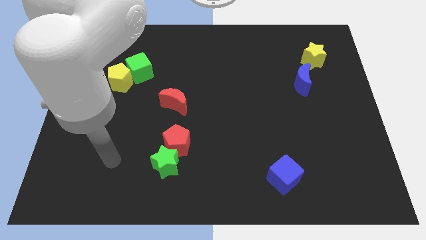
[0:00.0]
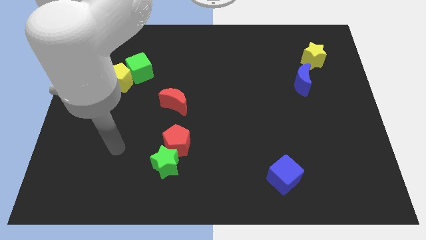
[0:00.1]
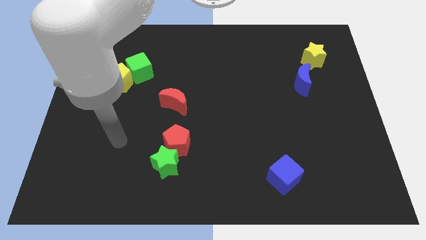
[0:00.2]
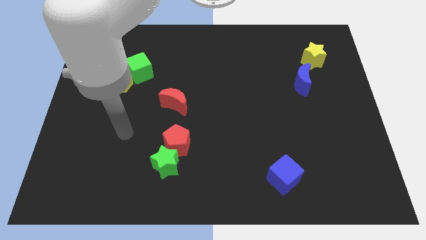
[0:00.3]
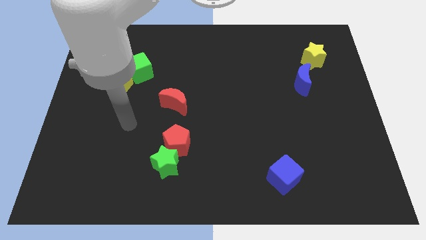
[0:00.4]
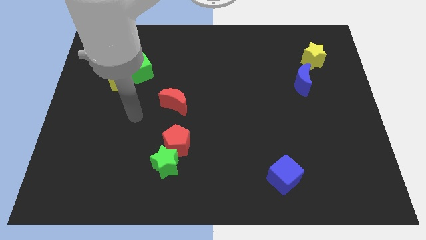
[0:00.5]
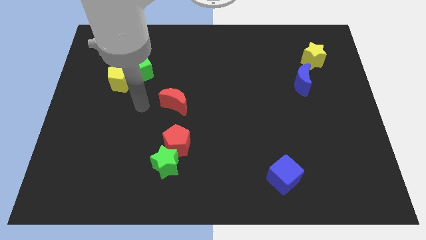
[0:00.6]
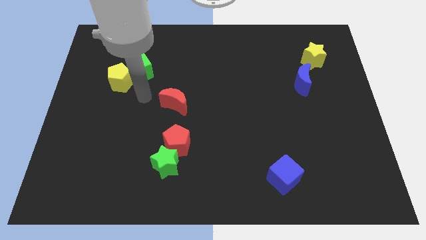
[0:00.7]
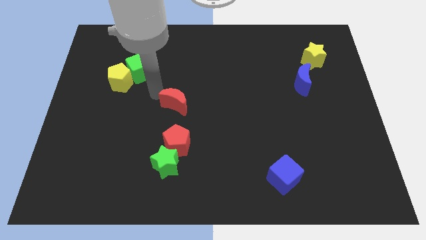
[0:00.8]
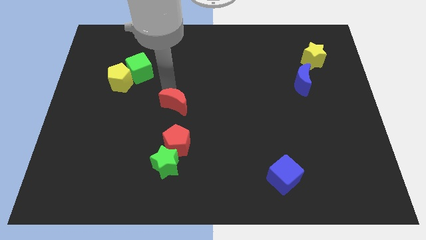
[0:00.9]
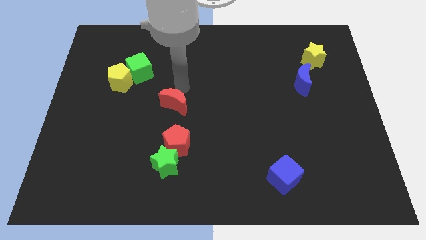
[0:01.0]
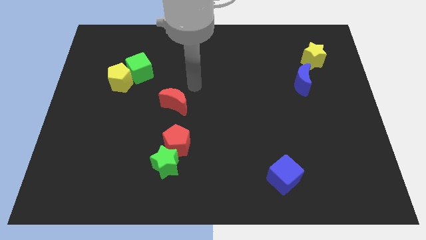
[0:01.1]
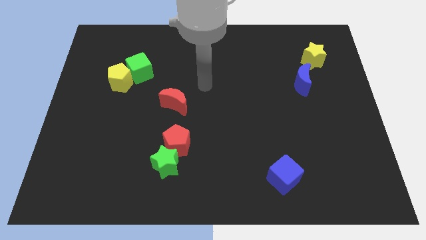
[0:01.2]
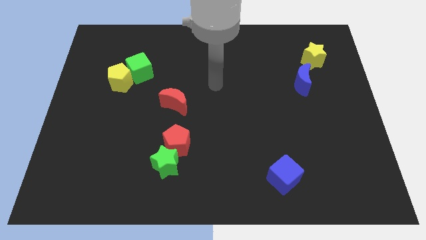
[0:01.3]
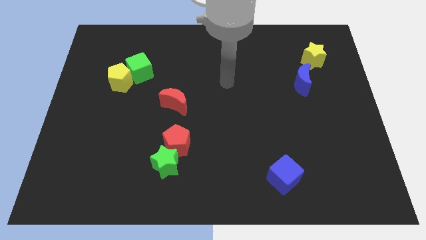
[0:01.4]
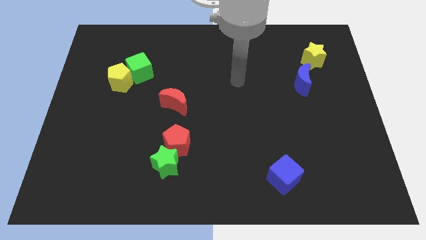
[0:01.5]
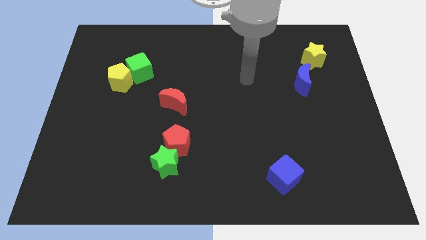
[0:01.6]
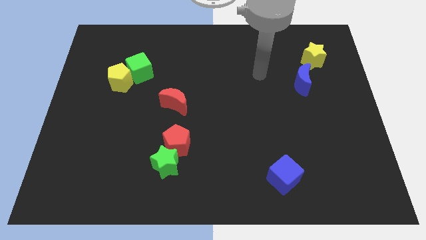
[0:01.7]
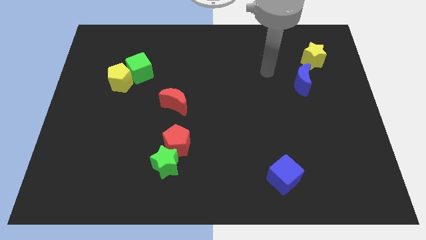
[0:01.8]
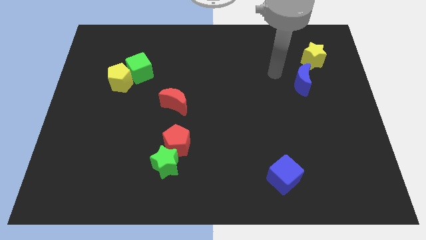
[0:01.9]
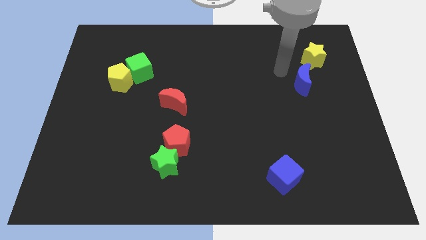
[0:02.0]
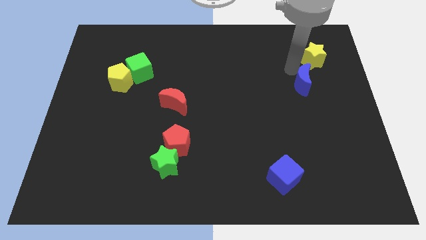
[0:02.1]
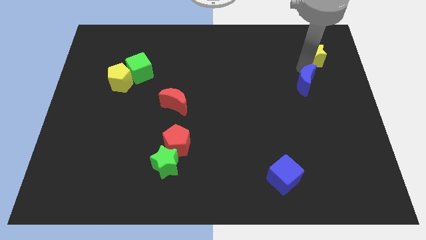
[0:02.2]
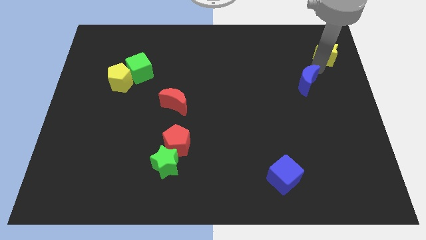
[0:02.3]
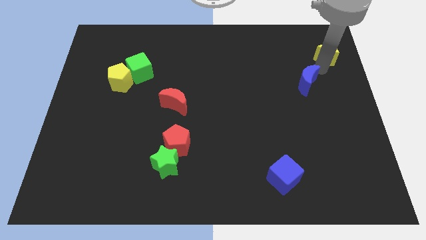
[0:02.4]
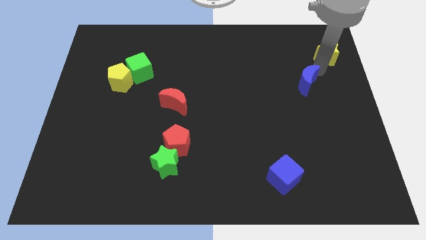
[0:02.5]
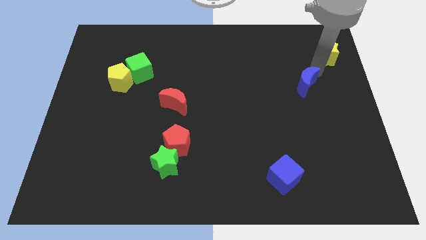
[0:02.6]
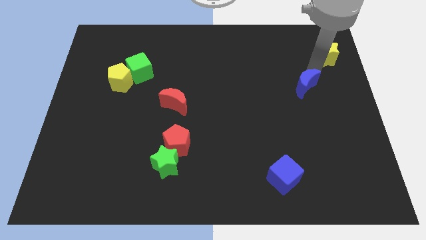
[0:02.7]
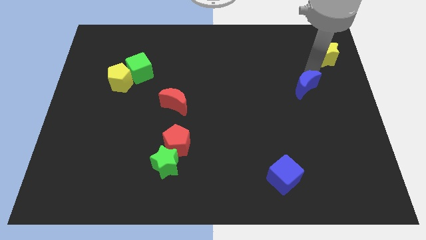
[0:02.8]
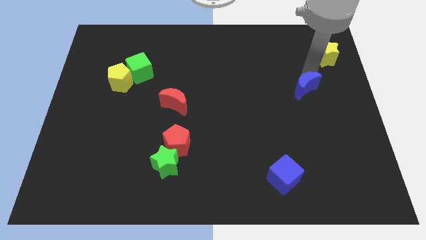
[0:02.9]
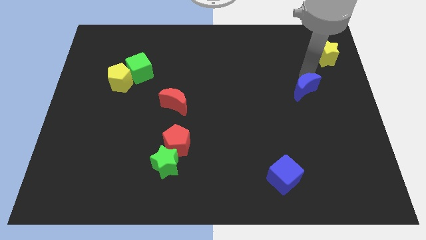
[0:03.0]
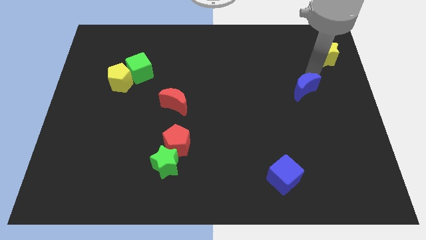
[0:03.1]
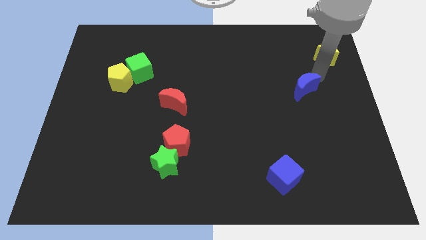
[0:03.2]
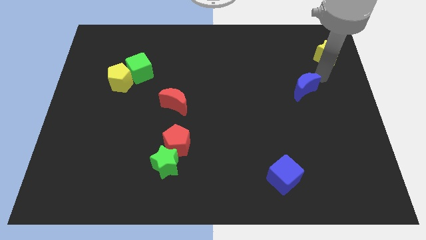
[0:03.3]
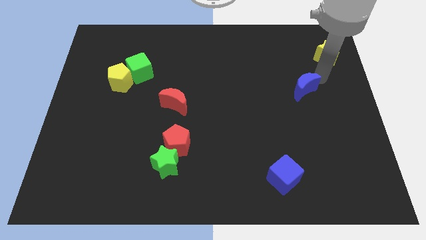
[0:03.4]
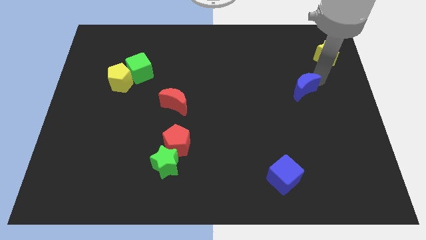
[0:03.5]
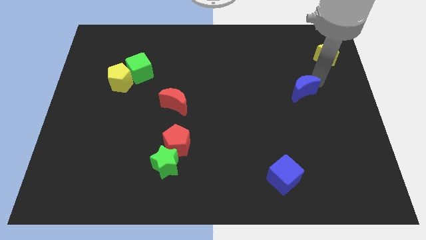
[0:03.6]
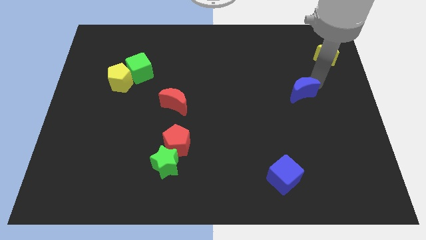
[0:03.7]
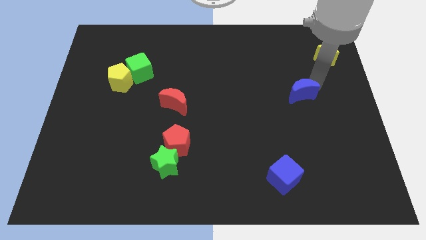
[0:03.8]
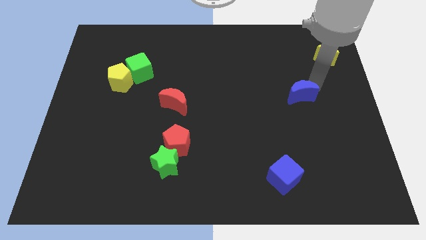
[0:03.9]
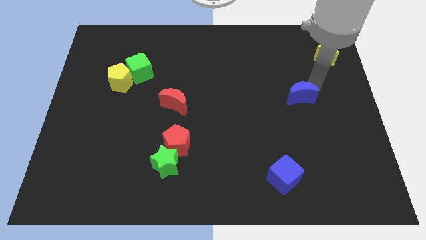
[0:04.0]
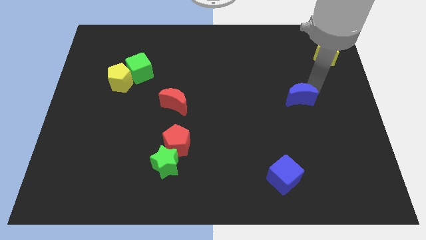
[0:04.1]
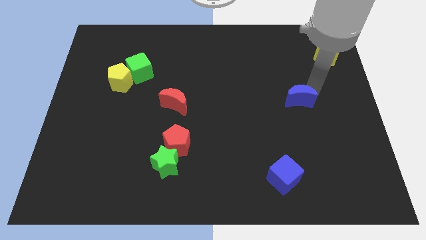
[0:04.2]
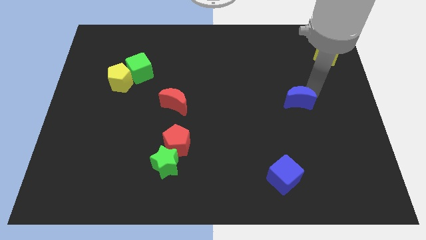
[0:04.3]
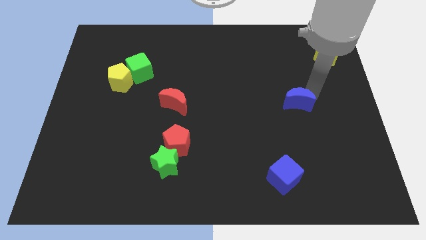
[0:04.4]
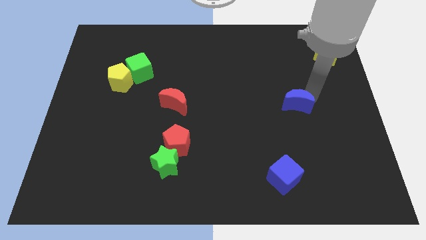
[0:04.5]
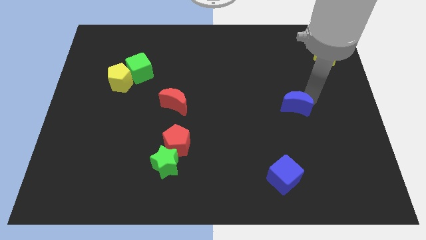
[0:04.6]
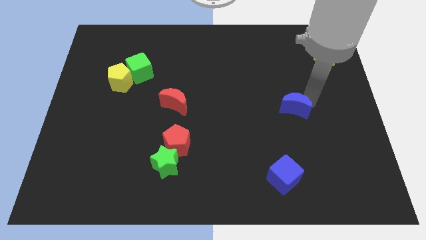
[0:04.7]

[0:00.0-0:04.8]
move the blue moon a bit down and then left

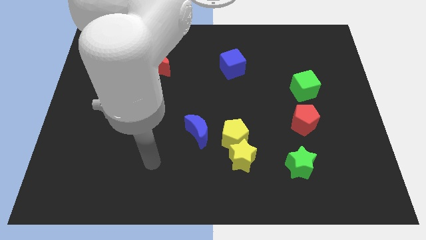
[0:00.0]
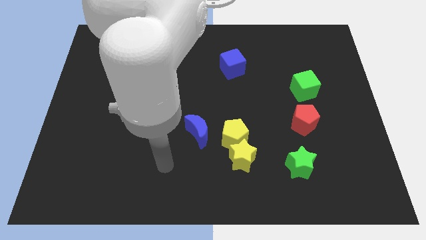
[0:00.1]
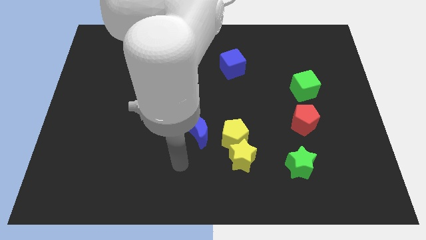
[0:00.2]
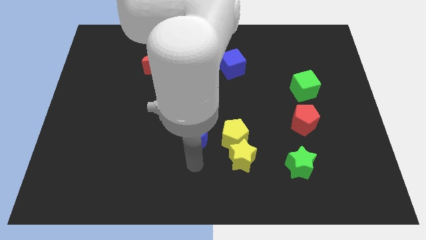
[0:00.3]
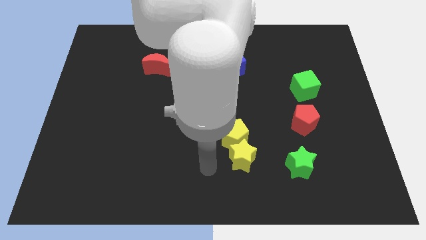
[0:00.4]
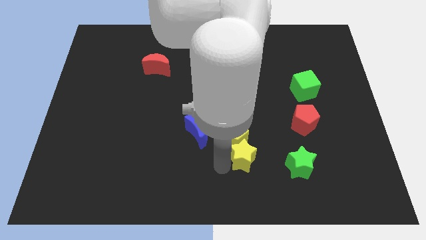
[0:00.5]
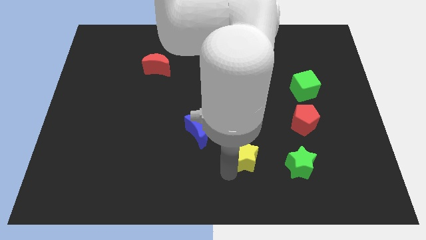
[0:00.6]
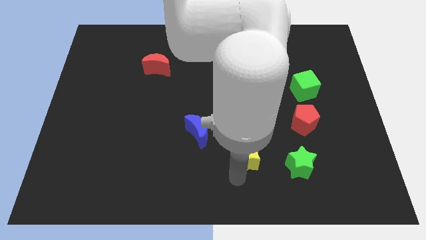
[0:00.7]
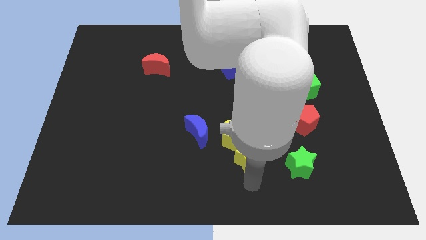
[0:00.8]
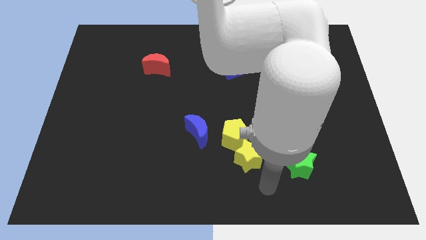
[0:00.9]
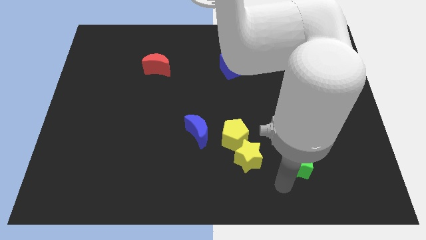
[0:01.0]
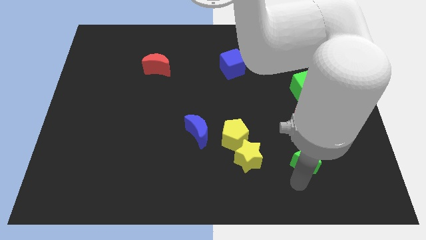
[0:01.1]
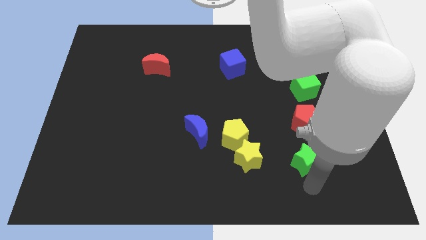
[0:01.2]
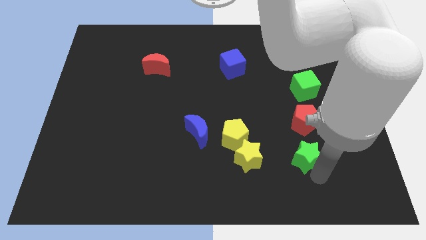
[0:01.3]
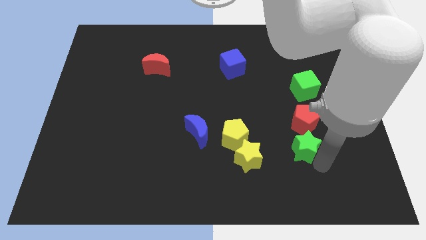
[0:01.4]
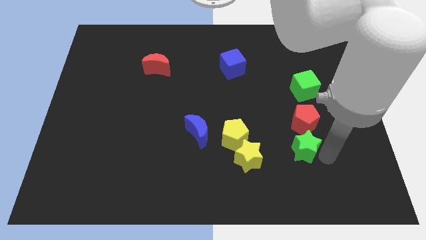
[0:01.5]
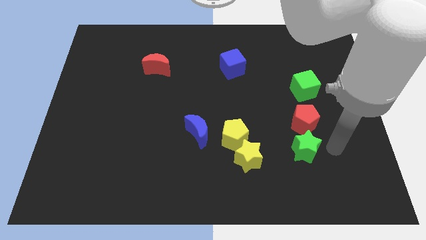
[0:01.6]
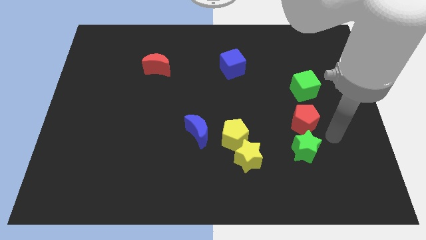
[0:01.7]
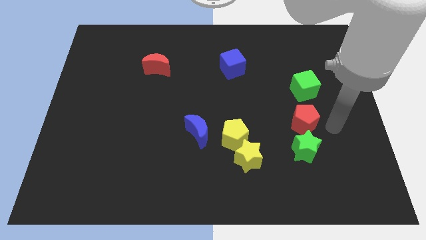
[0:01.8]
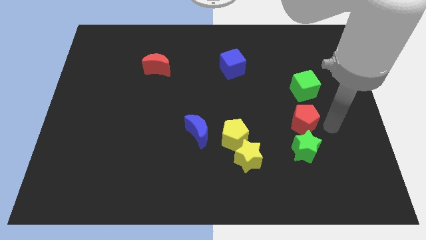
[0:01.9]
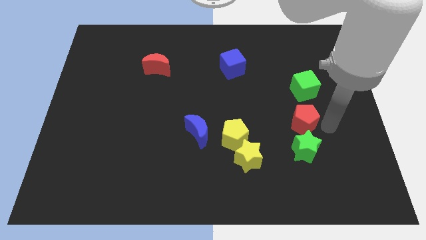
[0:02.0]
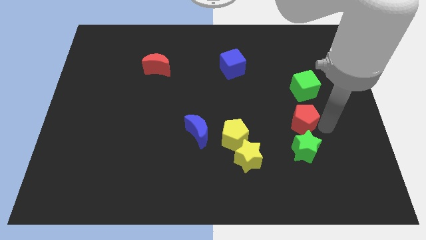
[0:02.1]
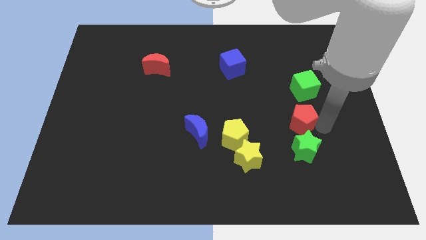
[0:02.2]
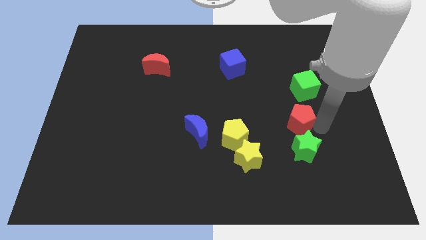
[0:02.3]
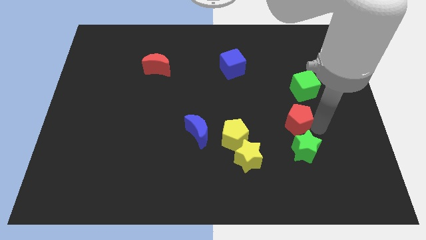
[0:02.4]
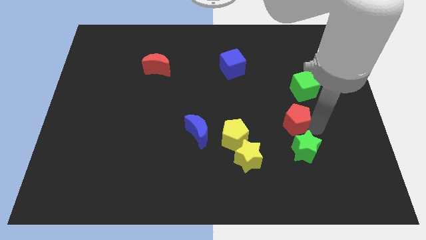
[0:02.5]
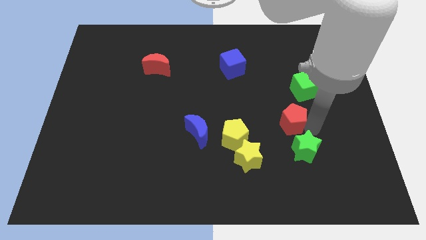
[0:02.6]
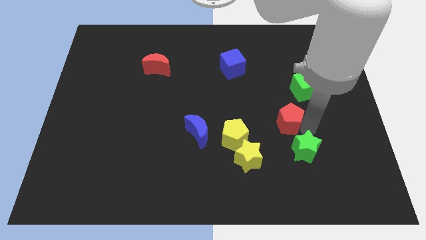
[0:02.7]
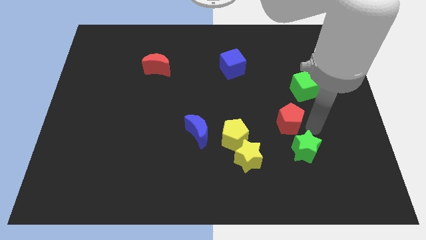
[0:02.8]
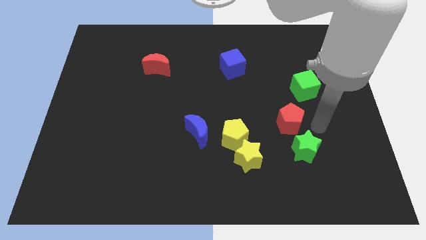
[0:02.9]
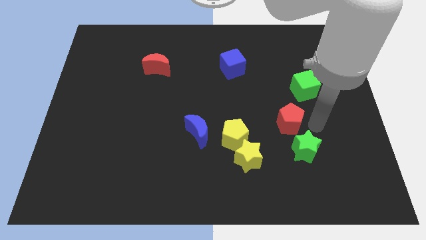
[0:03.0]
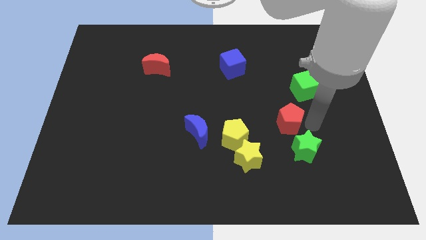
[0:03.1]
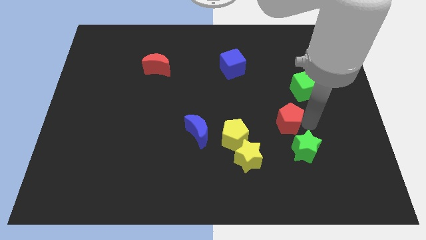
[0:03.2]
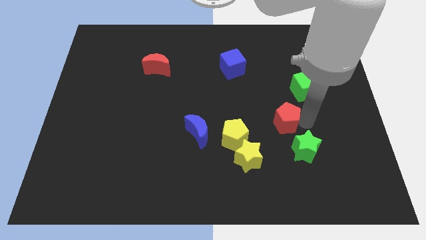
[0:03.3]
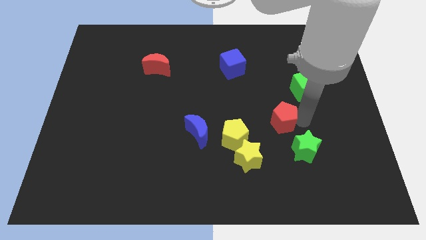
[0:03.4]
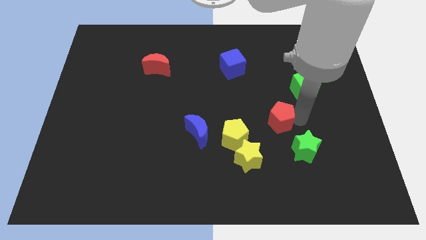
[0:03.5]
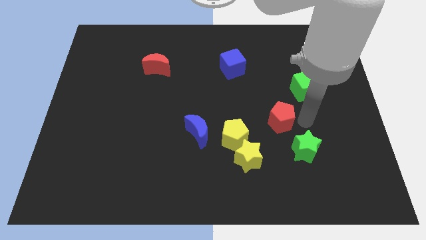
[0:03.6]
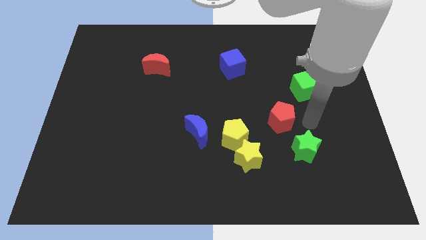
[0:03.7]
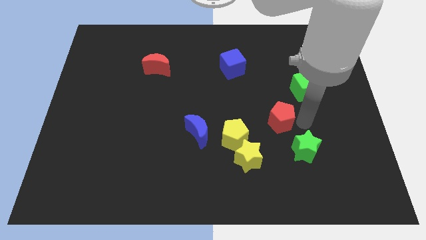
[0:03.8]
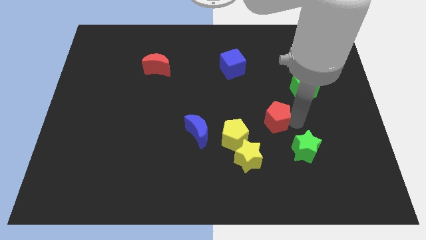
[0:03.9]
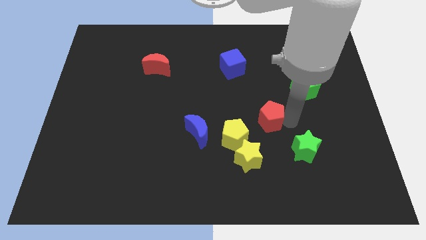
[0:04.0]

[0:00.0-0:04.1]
push the red pentagon a little bit left
